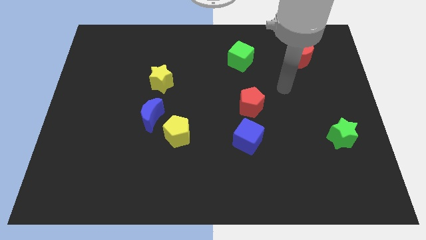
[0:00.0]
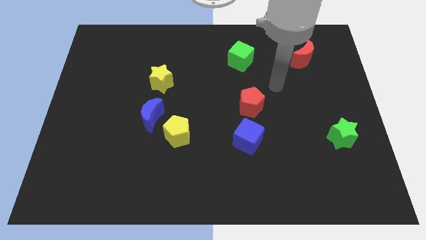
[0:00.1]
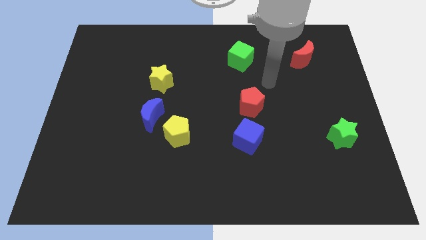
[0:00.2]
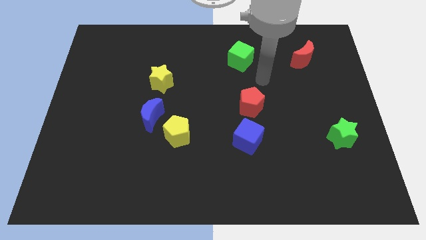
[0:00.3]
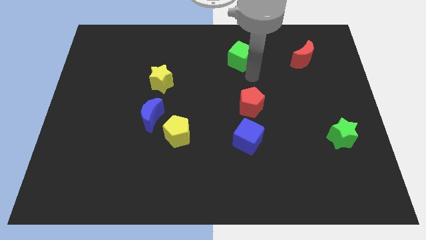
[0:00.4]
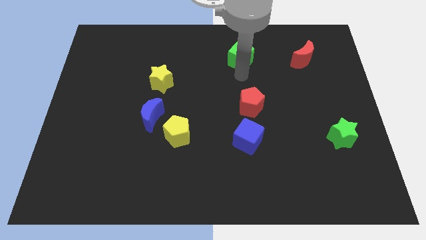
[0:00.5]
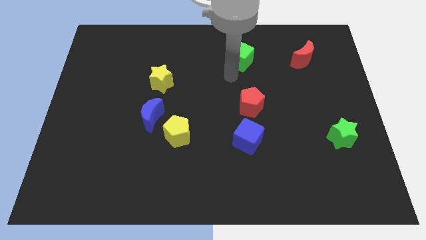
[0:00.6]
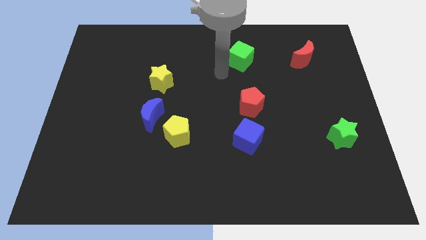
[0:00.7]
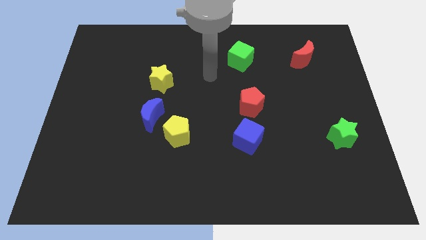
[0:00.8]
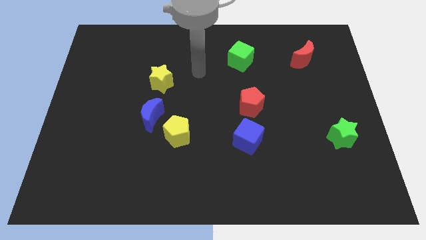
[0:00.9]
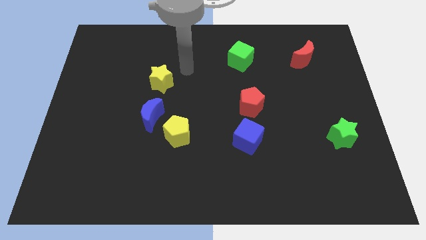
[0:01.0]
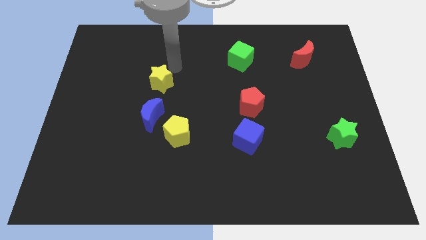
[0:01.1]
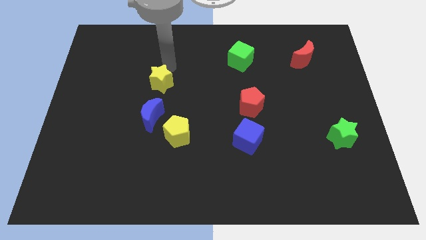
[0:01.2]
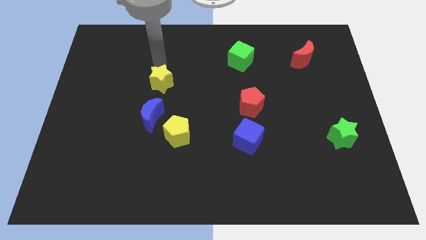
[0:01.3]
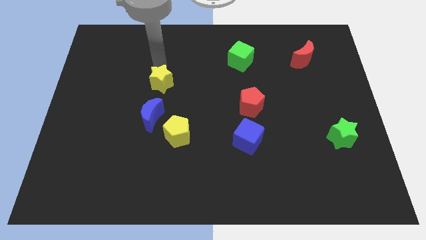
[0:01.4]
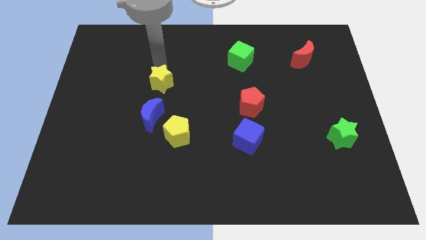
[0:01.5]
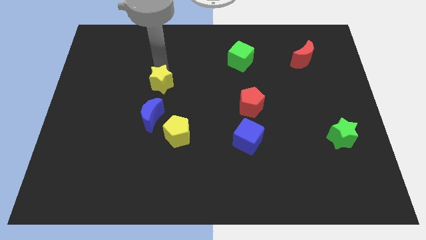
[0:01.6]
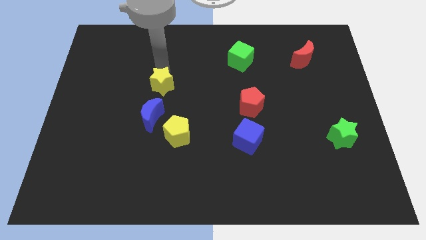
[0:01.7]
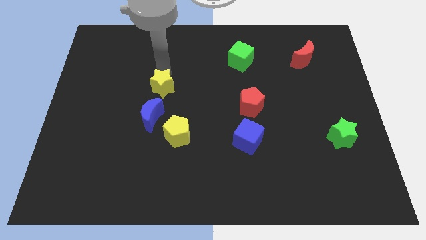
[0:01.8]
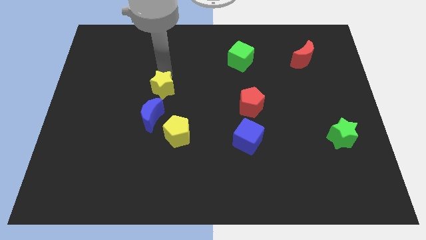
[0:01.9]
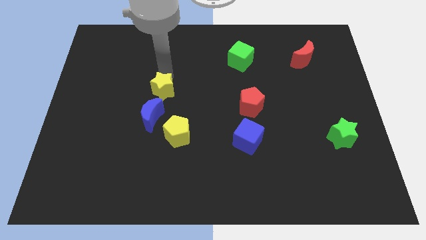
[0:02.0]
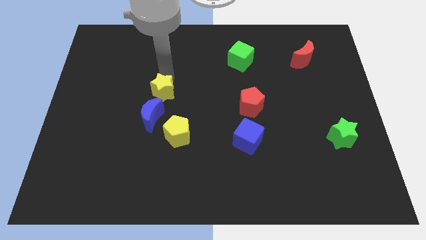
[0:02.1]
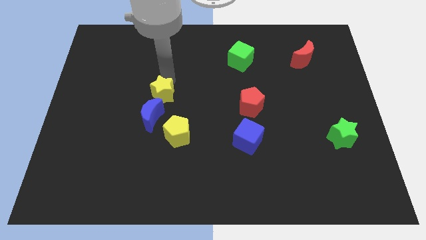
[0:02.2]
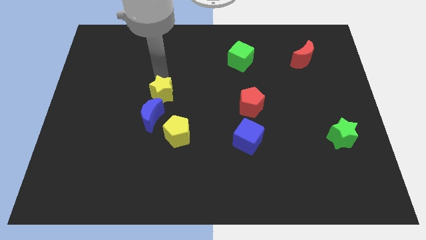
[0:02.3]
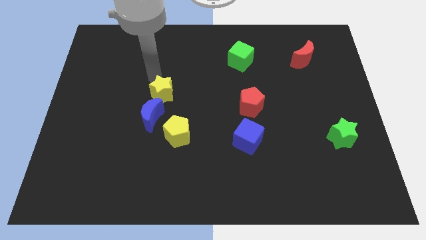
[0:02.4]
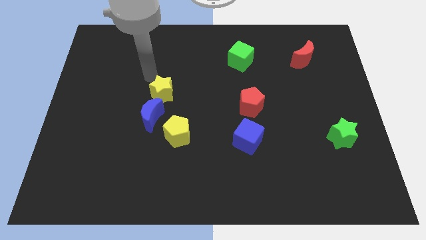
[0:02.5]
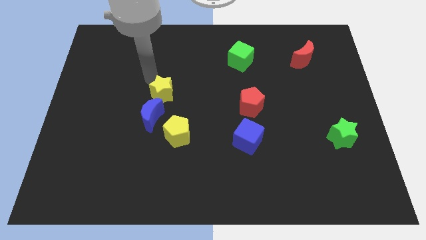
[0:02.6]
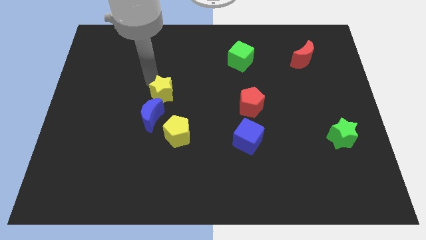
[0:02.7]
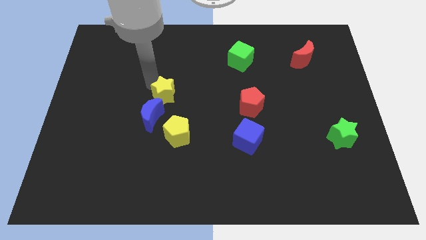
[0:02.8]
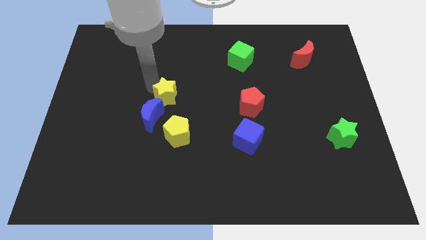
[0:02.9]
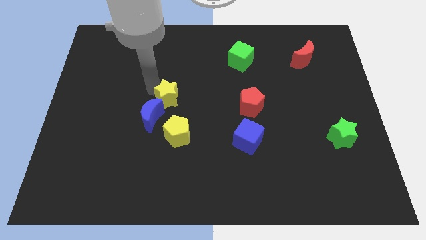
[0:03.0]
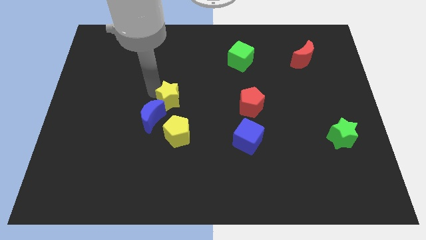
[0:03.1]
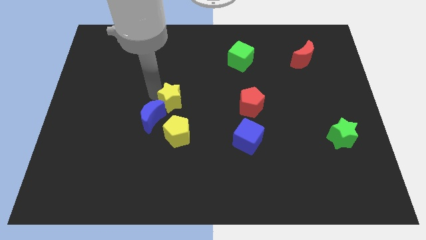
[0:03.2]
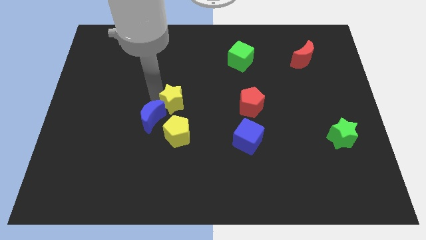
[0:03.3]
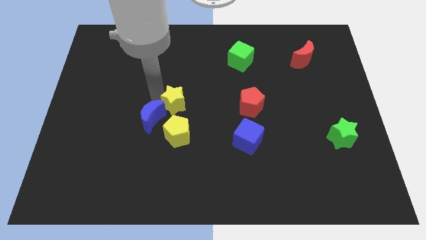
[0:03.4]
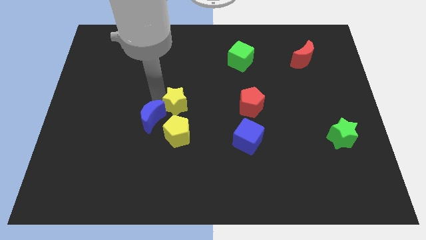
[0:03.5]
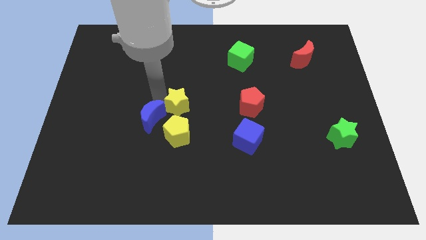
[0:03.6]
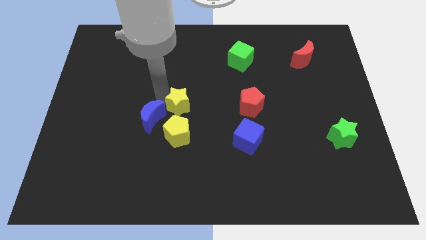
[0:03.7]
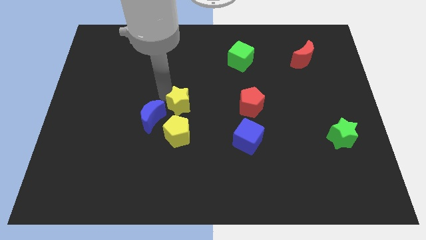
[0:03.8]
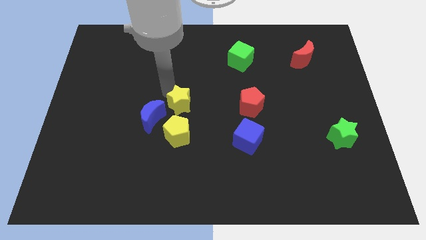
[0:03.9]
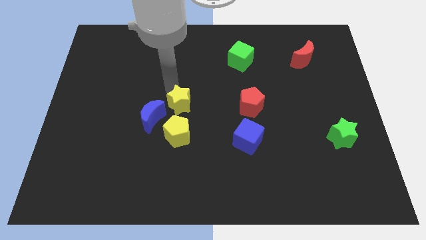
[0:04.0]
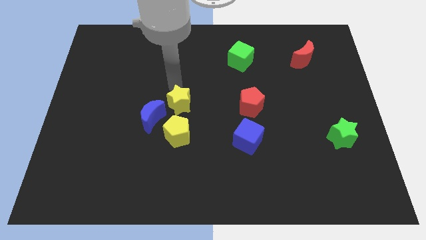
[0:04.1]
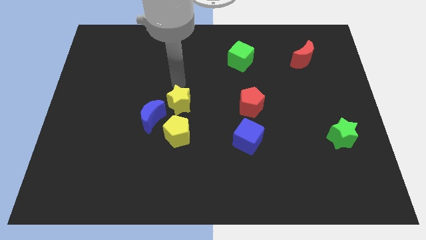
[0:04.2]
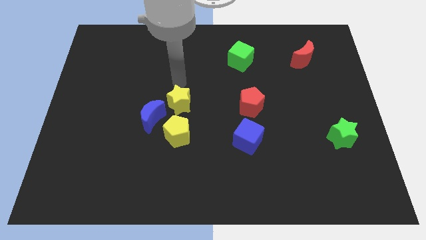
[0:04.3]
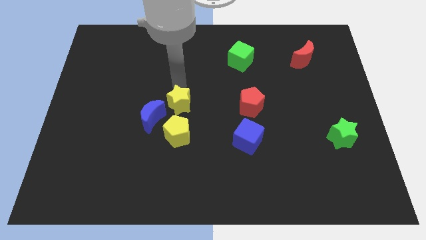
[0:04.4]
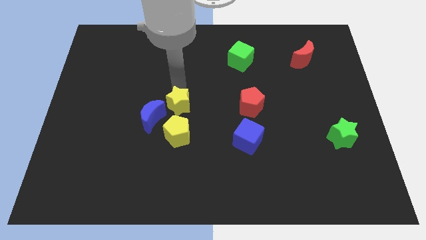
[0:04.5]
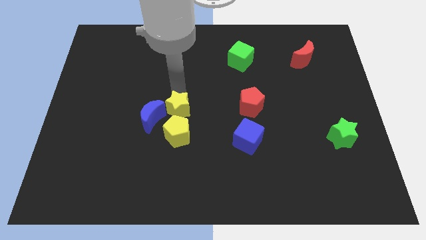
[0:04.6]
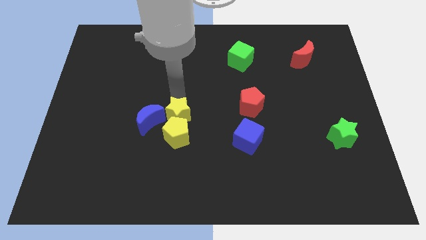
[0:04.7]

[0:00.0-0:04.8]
put the yellow star next to the yellow pentagon

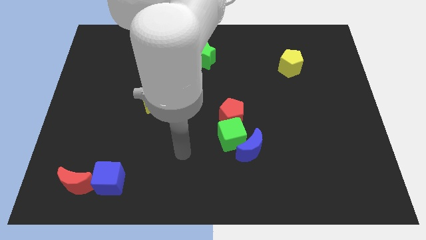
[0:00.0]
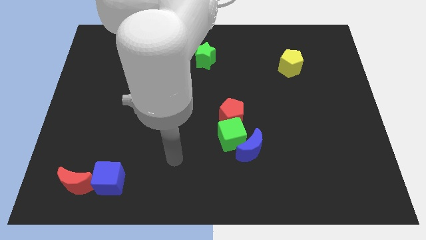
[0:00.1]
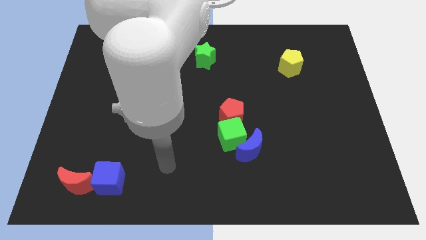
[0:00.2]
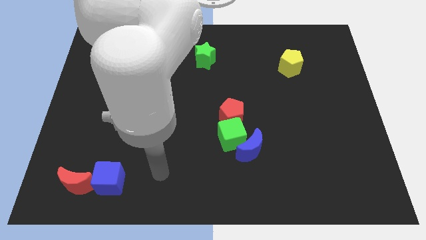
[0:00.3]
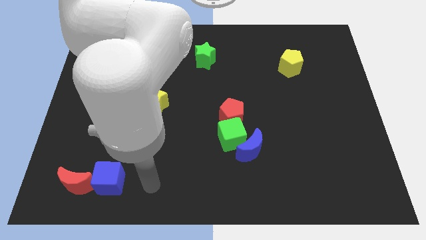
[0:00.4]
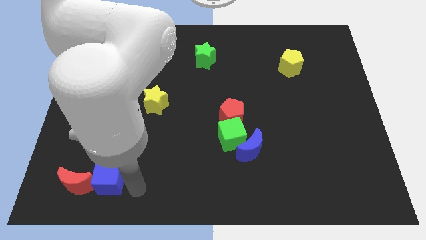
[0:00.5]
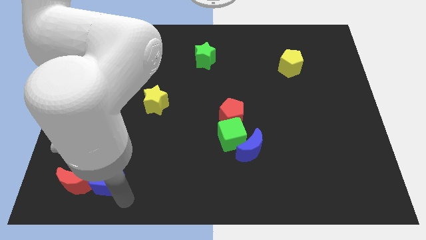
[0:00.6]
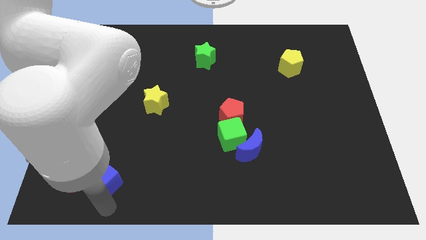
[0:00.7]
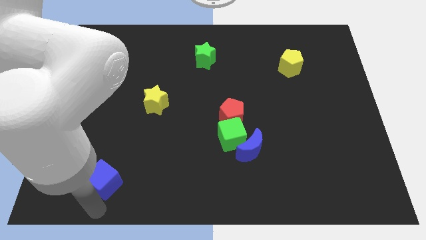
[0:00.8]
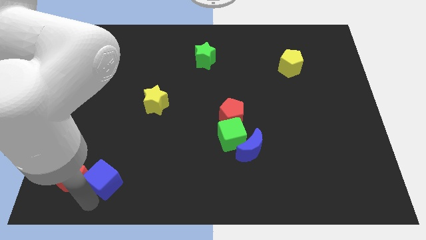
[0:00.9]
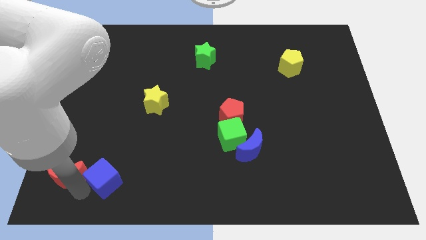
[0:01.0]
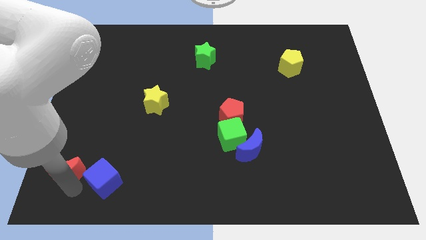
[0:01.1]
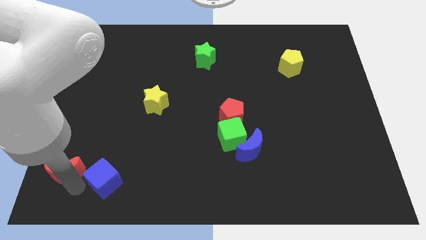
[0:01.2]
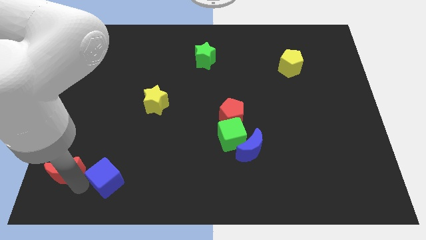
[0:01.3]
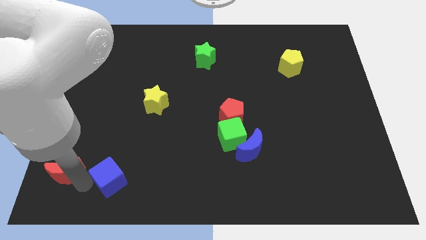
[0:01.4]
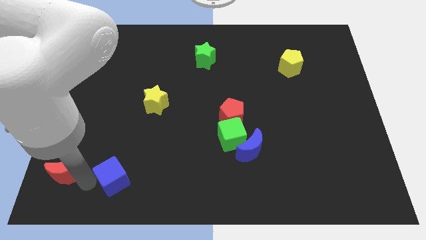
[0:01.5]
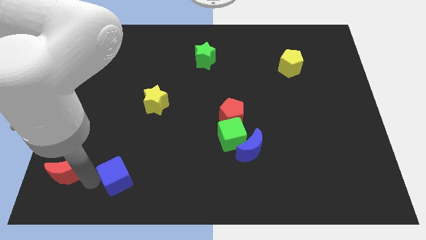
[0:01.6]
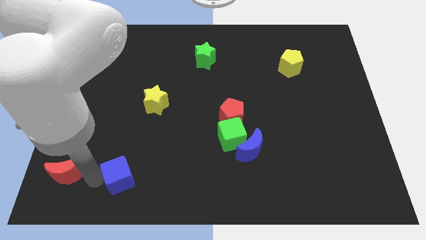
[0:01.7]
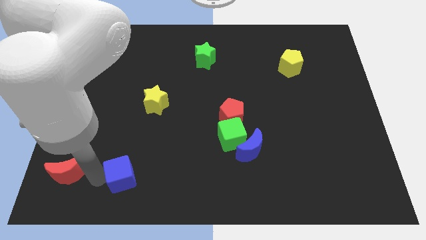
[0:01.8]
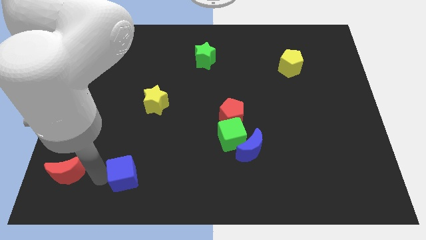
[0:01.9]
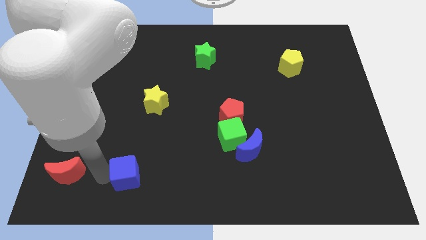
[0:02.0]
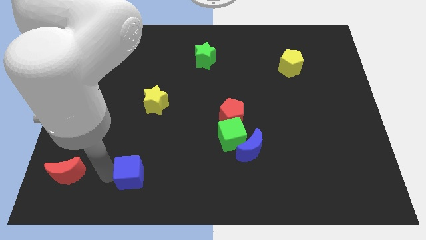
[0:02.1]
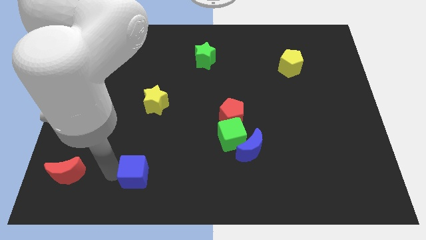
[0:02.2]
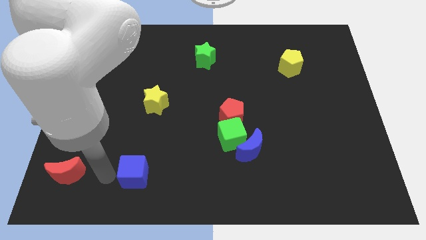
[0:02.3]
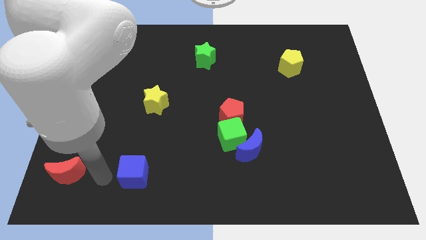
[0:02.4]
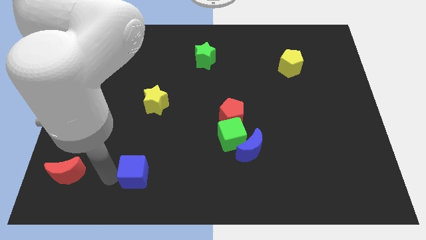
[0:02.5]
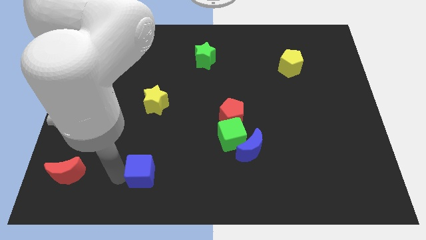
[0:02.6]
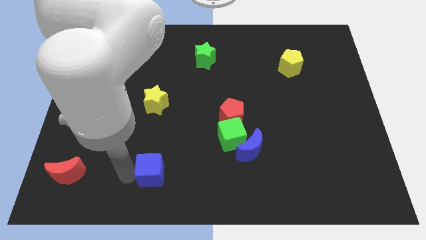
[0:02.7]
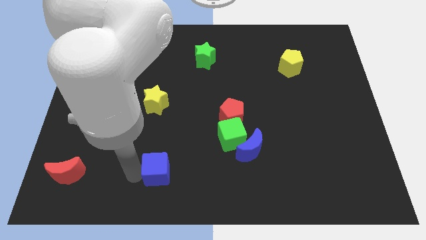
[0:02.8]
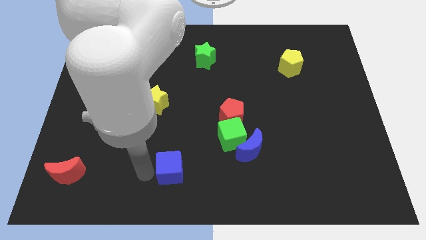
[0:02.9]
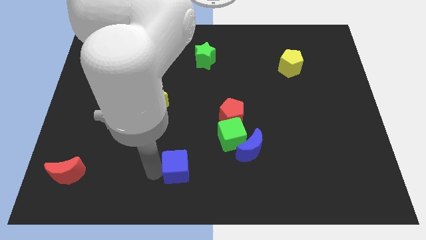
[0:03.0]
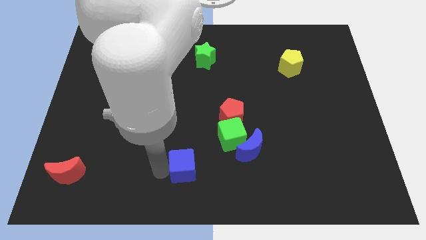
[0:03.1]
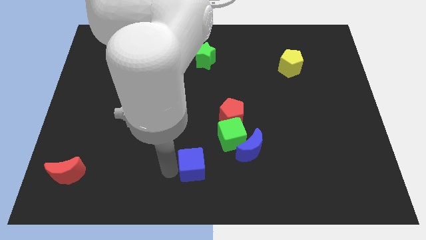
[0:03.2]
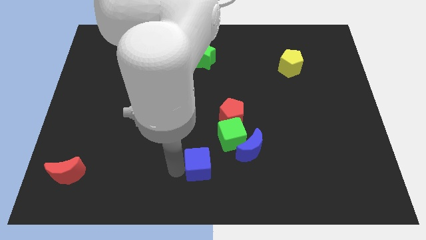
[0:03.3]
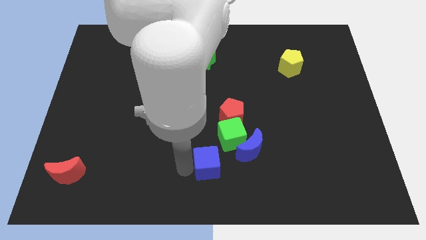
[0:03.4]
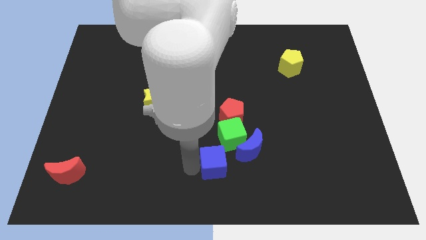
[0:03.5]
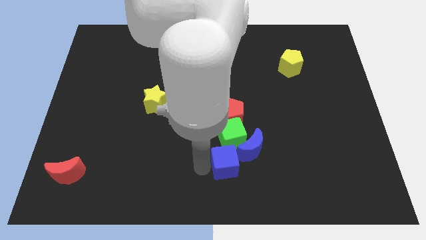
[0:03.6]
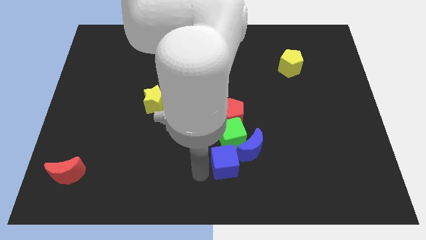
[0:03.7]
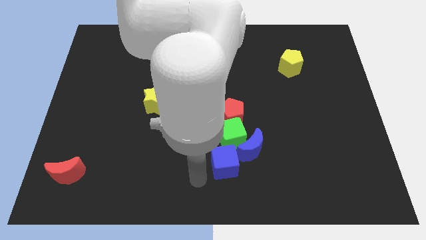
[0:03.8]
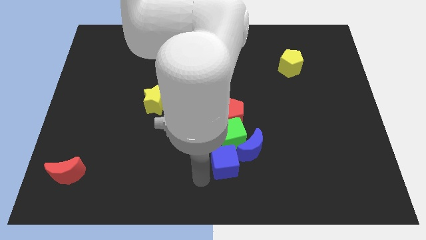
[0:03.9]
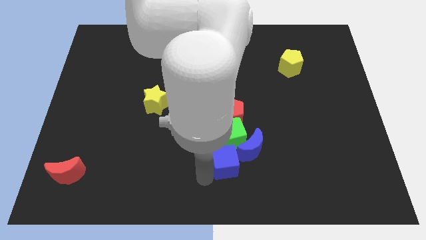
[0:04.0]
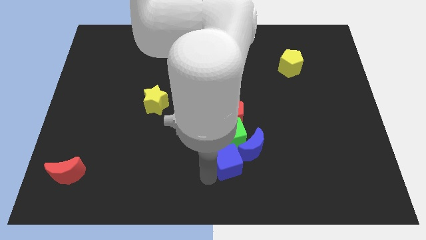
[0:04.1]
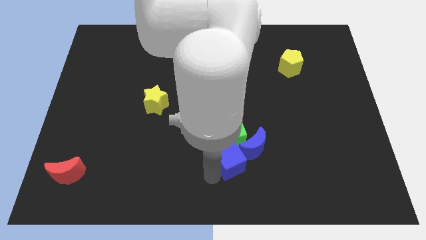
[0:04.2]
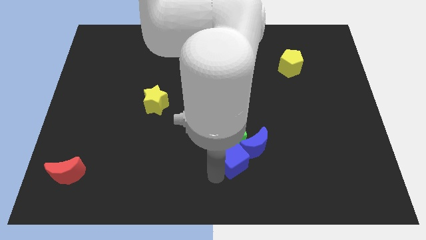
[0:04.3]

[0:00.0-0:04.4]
put the blue cube next to the blue moon
